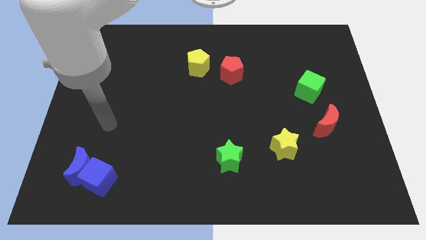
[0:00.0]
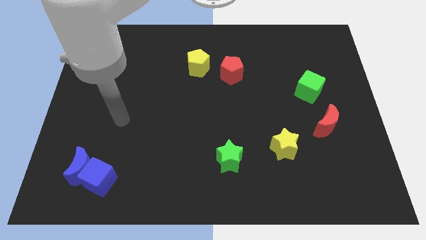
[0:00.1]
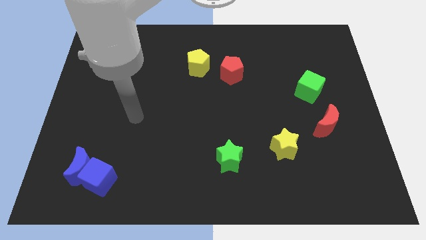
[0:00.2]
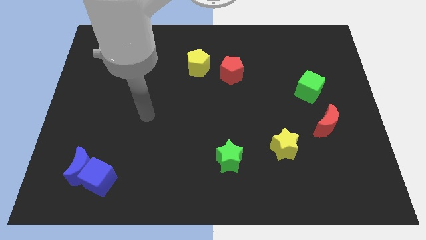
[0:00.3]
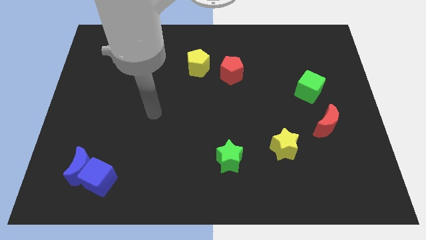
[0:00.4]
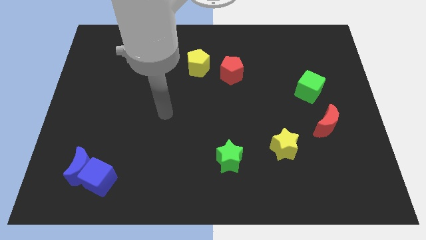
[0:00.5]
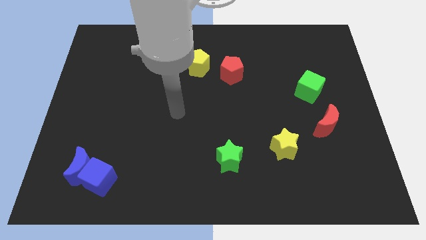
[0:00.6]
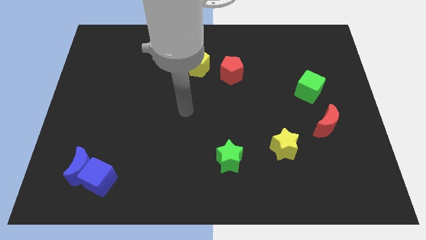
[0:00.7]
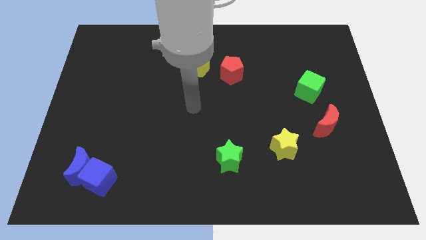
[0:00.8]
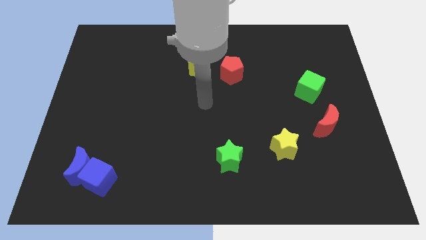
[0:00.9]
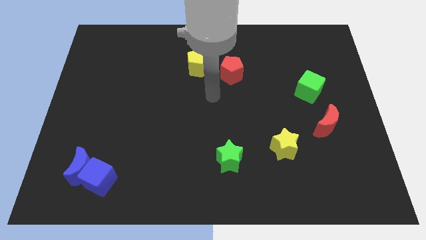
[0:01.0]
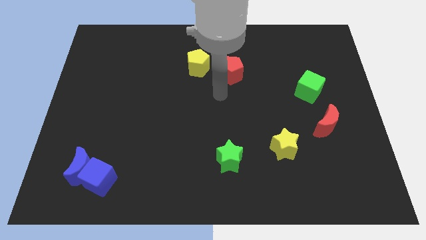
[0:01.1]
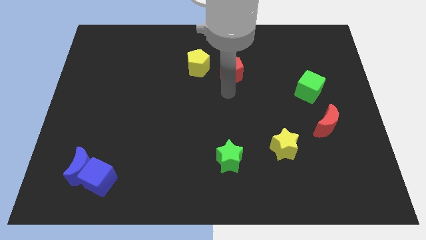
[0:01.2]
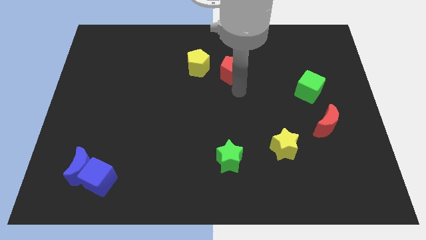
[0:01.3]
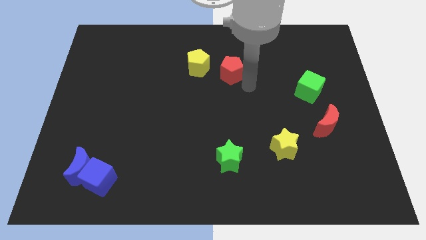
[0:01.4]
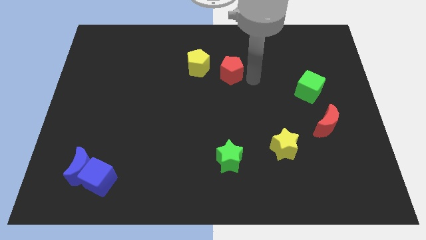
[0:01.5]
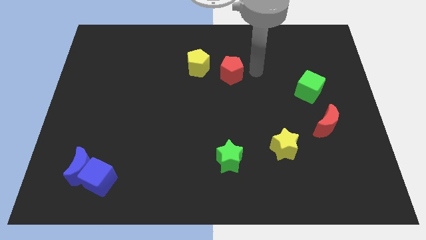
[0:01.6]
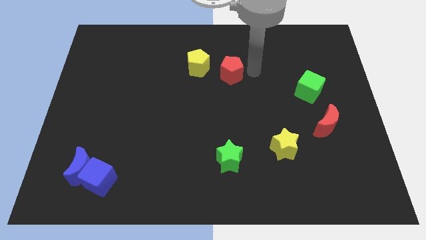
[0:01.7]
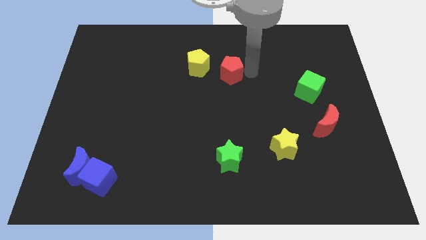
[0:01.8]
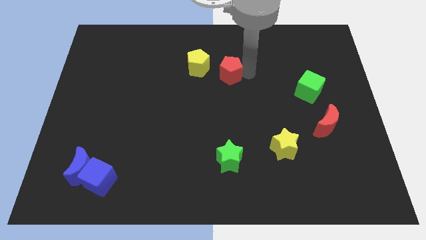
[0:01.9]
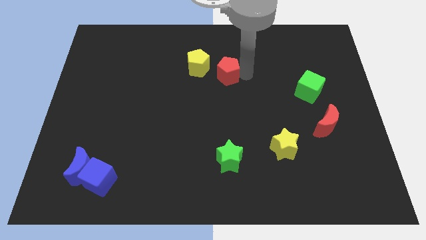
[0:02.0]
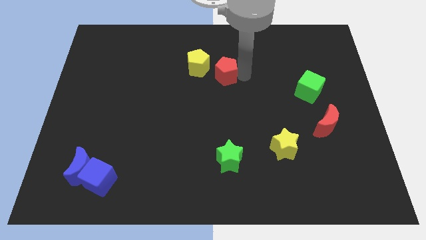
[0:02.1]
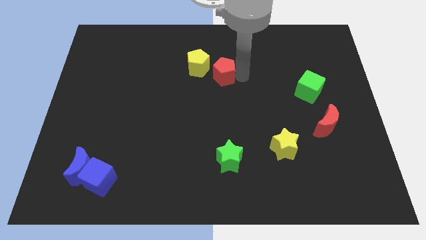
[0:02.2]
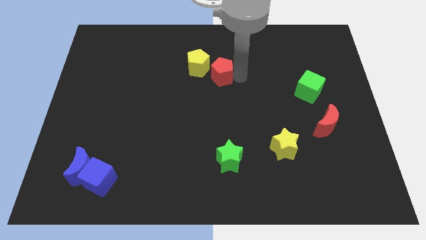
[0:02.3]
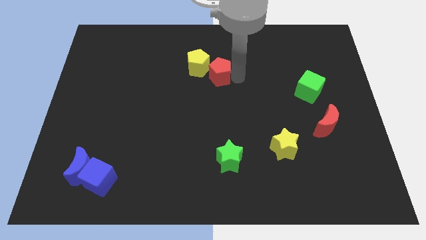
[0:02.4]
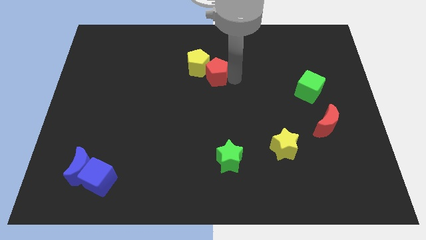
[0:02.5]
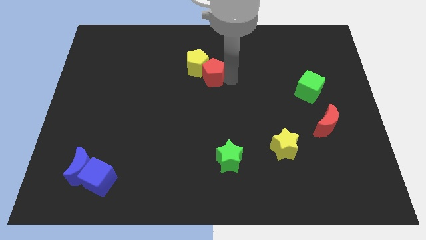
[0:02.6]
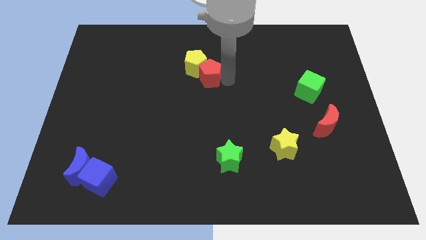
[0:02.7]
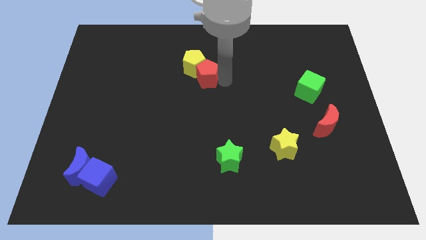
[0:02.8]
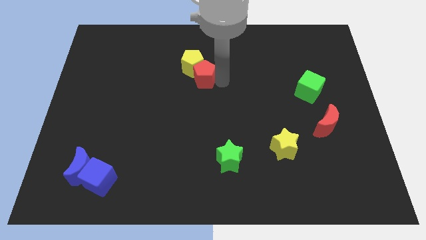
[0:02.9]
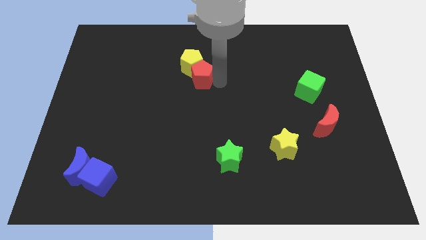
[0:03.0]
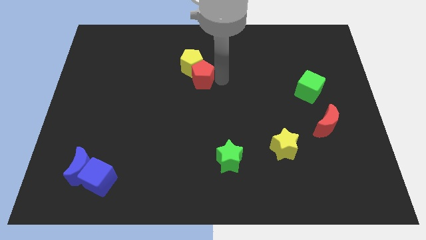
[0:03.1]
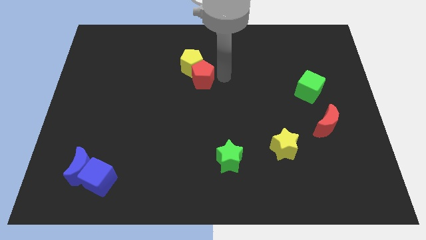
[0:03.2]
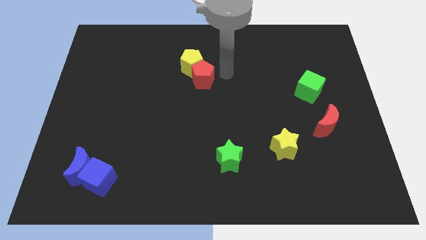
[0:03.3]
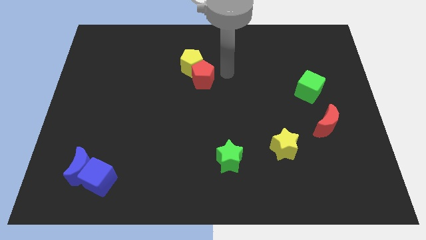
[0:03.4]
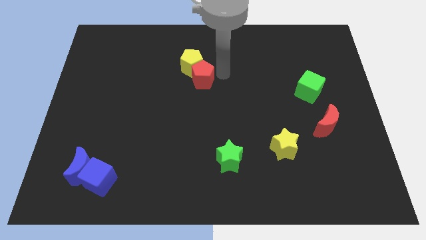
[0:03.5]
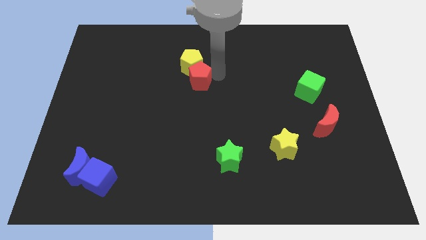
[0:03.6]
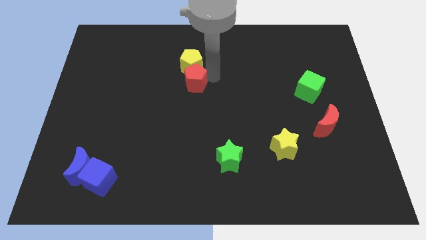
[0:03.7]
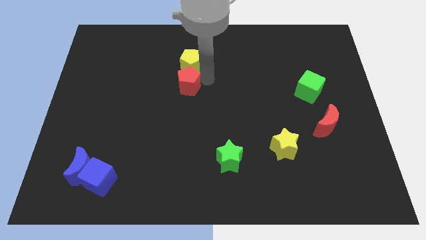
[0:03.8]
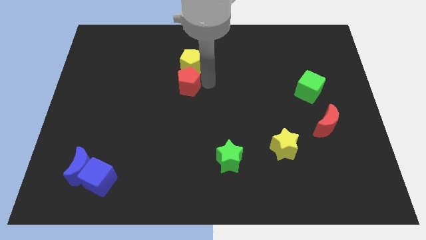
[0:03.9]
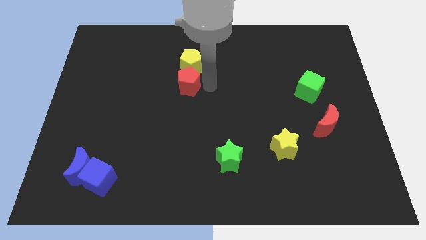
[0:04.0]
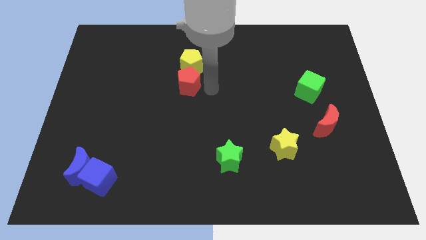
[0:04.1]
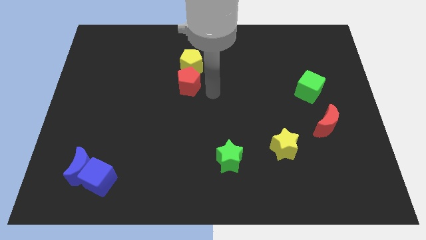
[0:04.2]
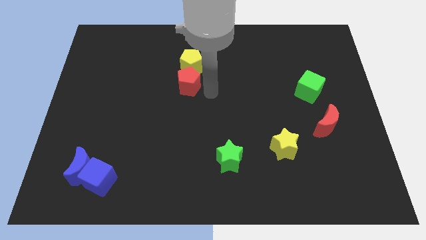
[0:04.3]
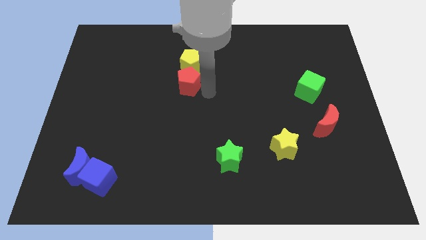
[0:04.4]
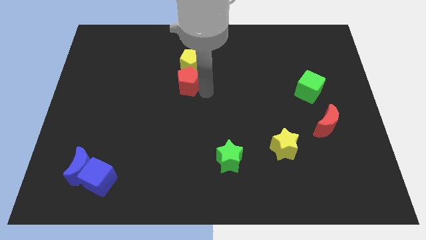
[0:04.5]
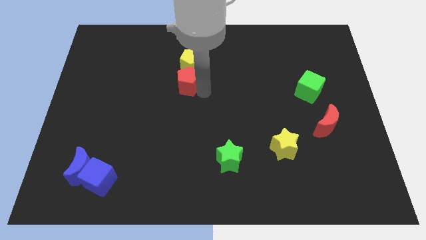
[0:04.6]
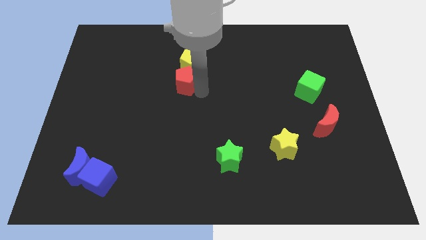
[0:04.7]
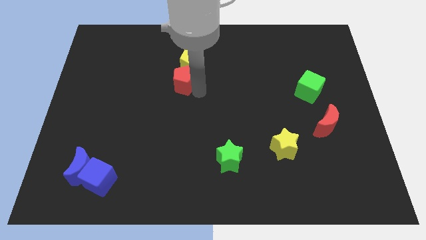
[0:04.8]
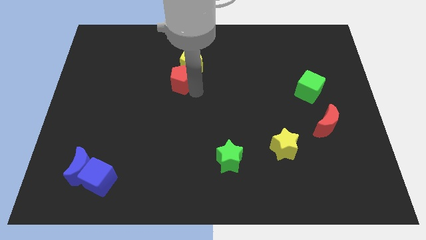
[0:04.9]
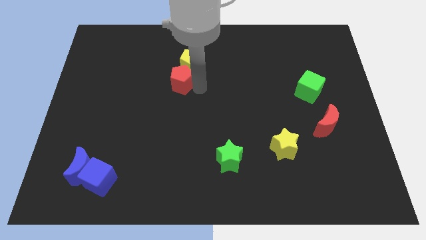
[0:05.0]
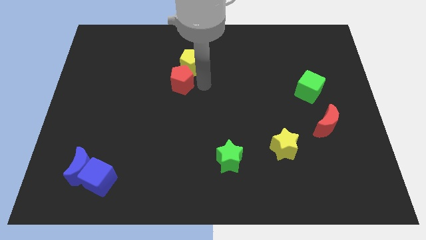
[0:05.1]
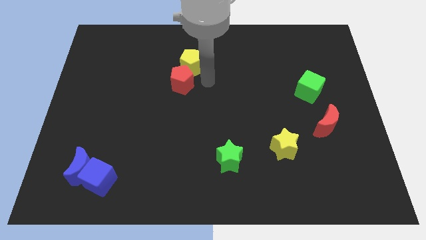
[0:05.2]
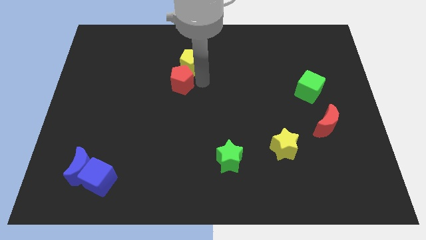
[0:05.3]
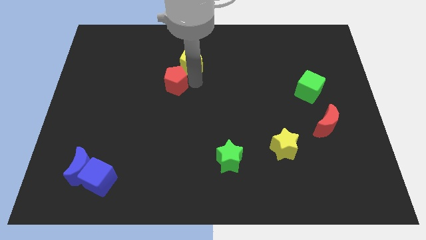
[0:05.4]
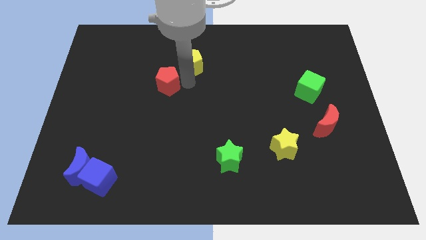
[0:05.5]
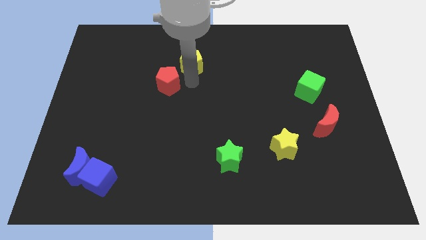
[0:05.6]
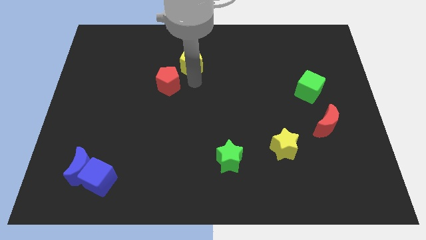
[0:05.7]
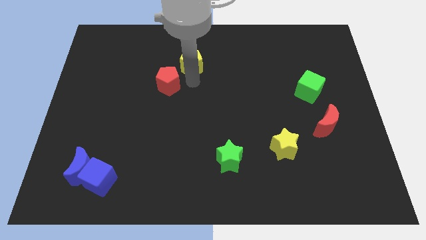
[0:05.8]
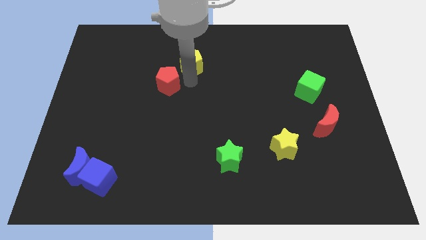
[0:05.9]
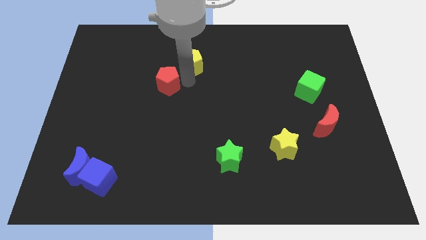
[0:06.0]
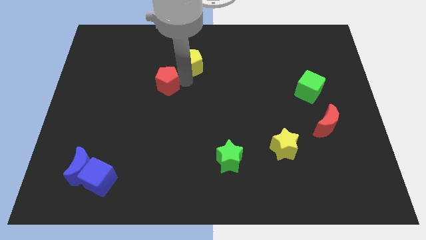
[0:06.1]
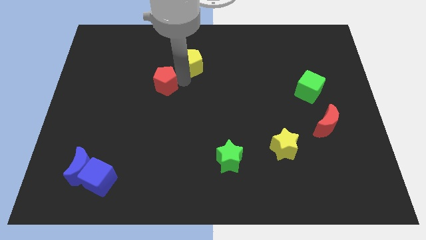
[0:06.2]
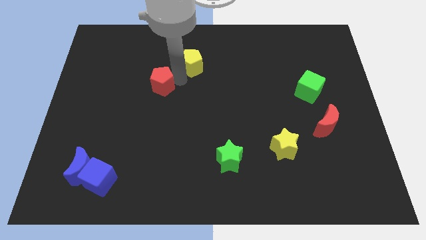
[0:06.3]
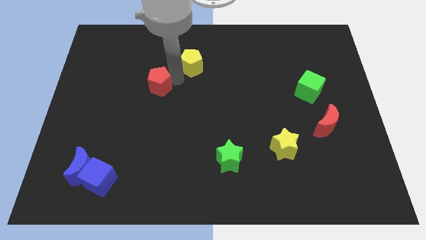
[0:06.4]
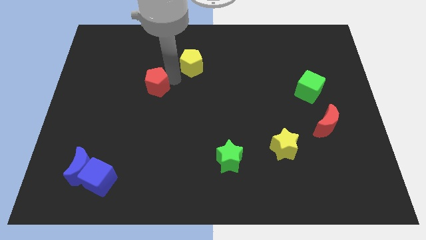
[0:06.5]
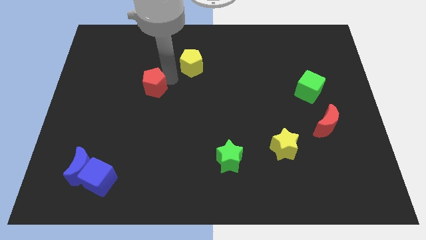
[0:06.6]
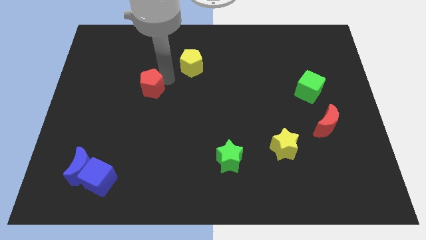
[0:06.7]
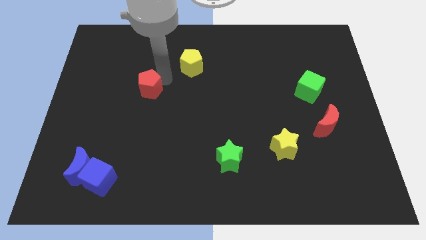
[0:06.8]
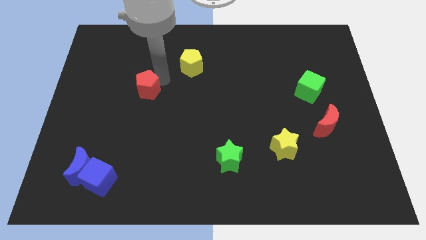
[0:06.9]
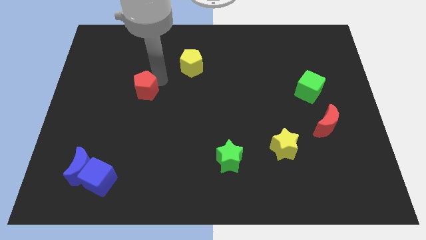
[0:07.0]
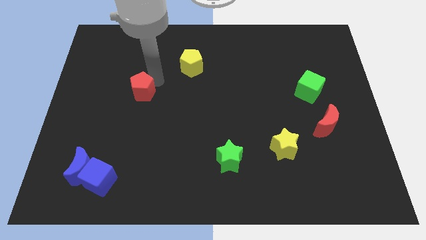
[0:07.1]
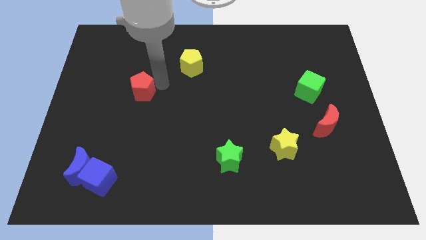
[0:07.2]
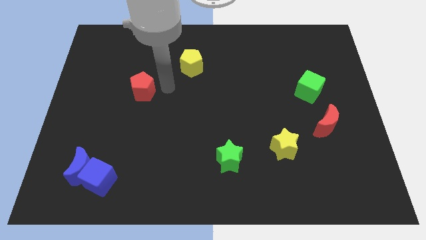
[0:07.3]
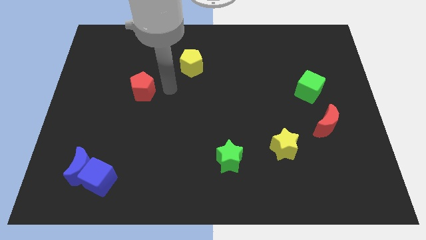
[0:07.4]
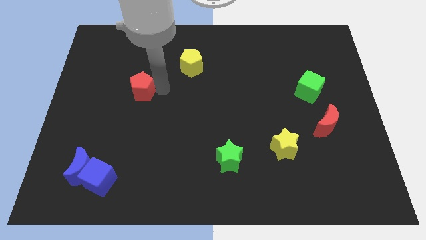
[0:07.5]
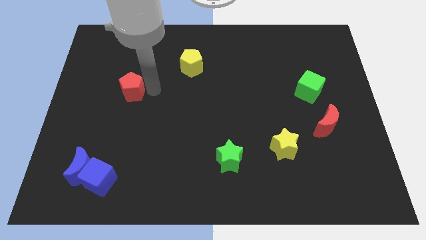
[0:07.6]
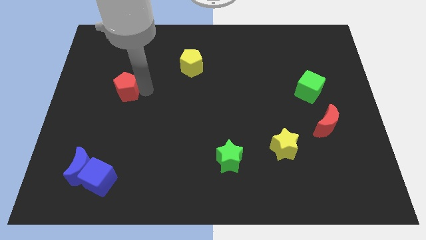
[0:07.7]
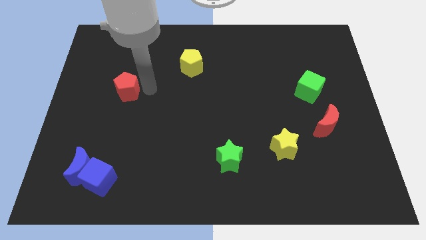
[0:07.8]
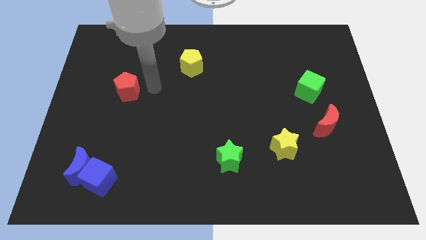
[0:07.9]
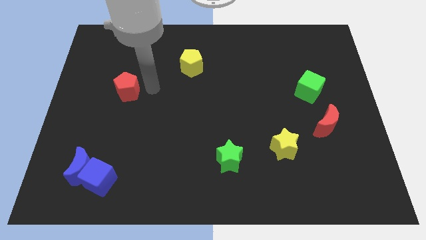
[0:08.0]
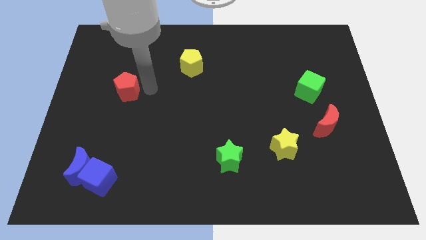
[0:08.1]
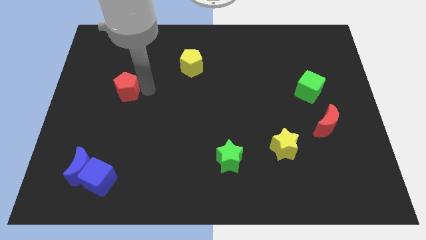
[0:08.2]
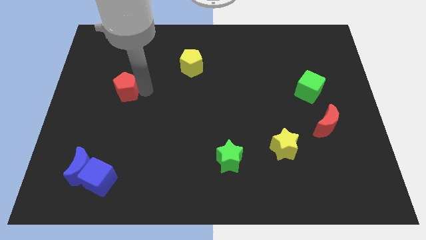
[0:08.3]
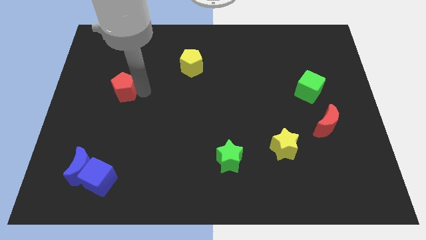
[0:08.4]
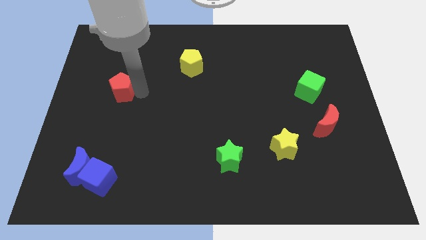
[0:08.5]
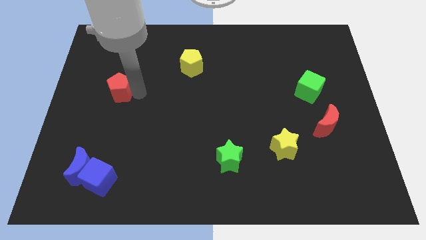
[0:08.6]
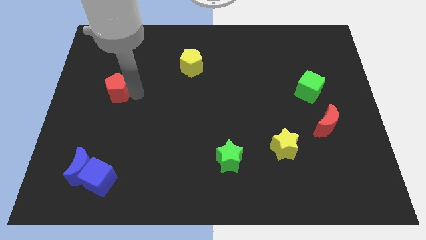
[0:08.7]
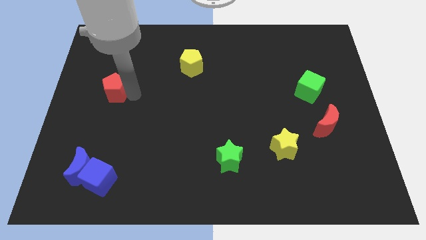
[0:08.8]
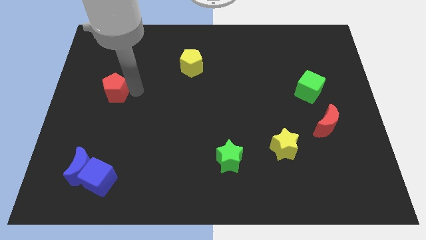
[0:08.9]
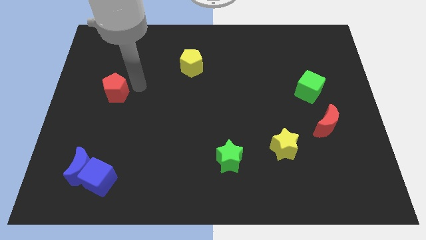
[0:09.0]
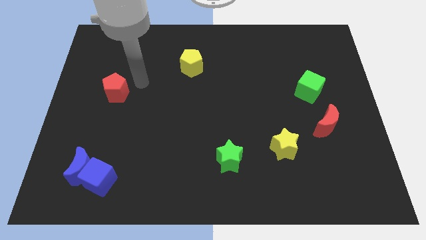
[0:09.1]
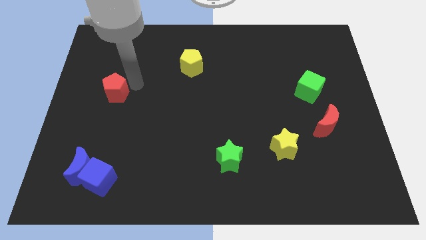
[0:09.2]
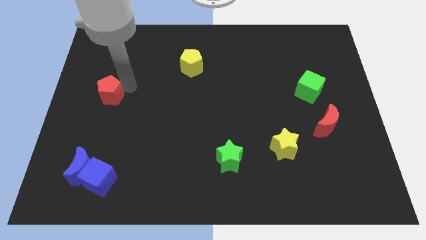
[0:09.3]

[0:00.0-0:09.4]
move the red pentagon to the center left
